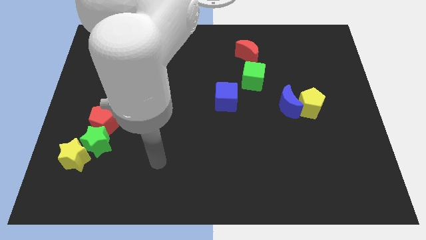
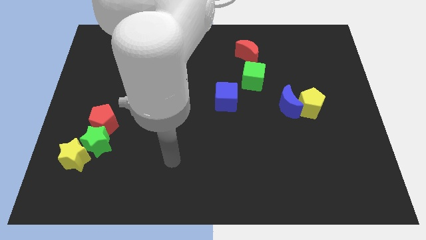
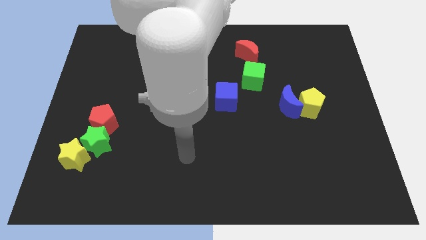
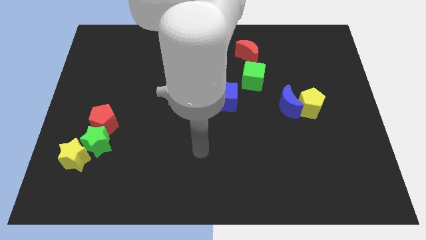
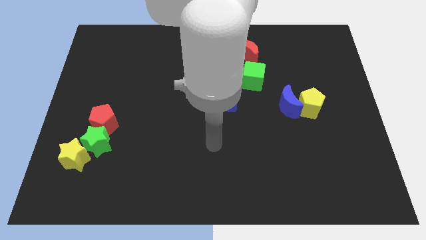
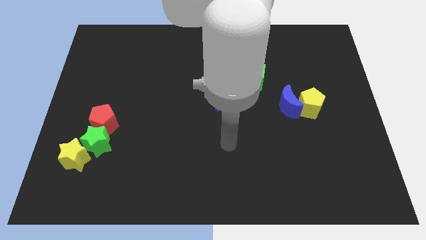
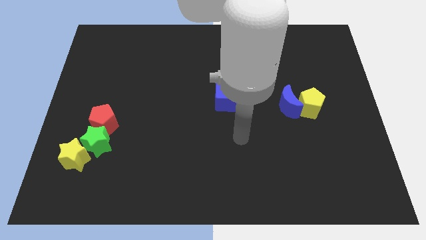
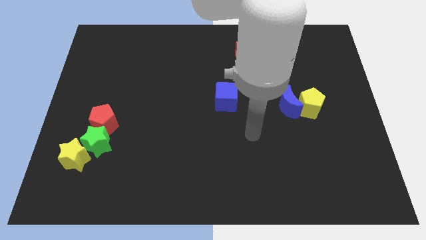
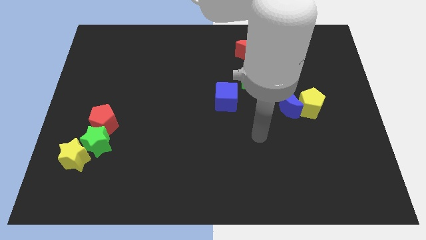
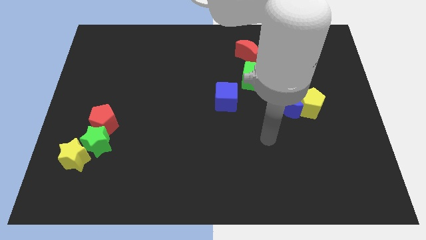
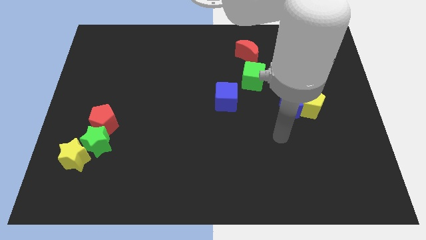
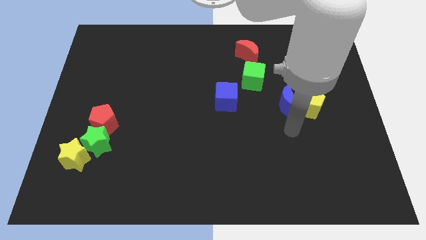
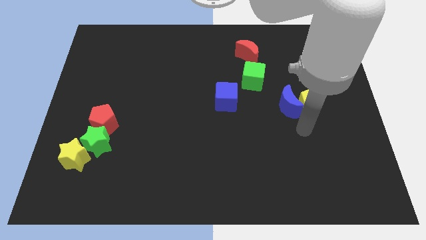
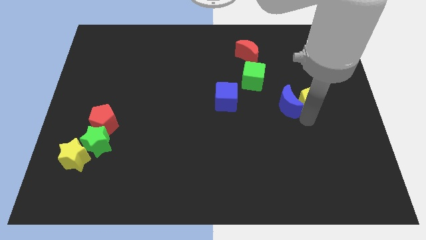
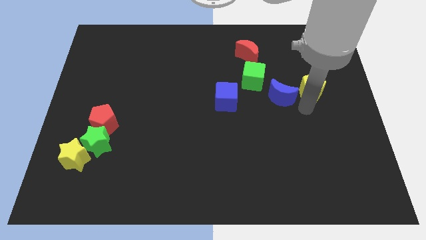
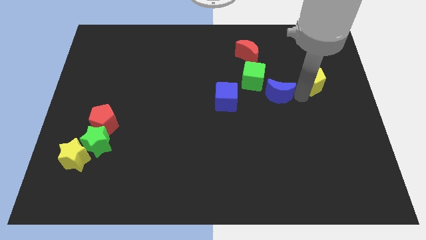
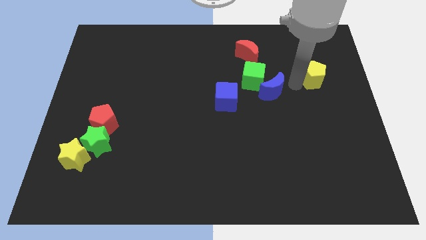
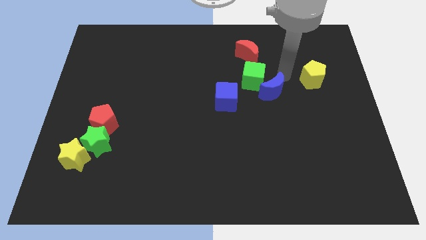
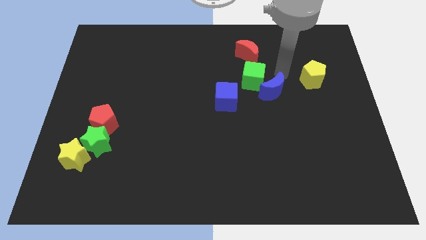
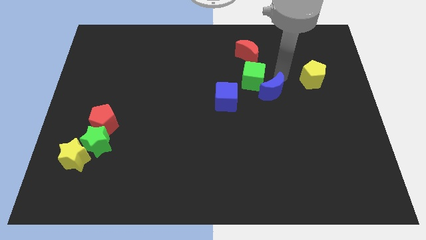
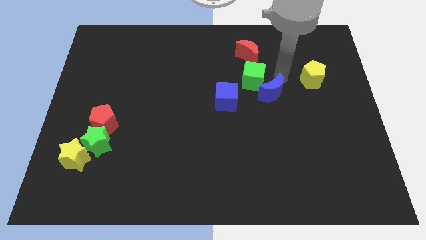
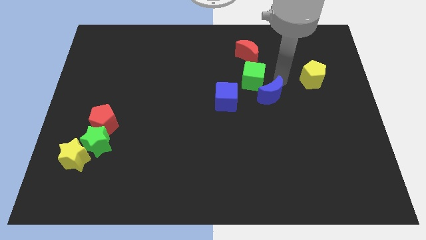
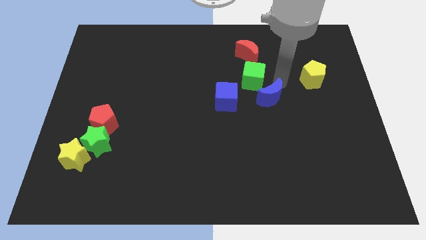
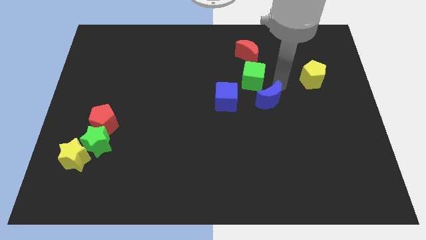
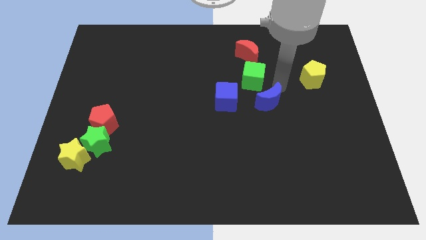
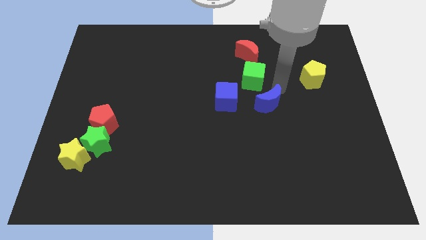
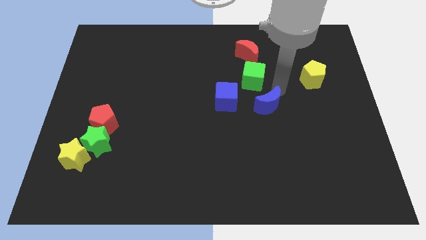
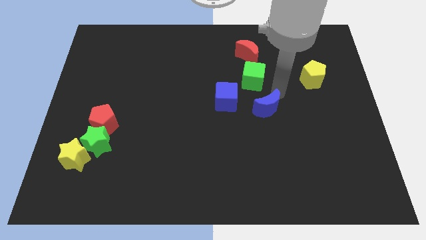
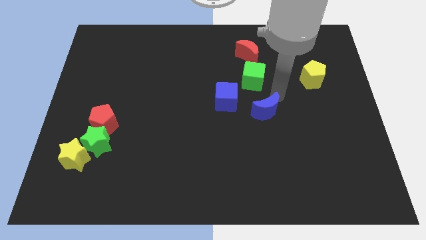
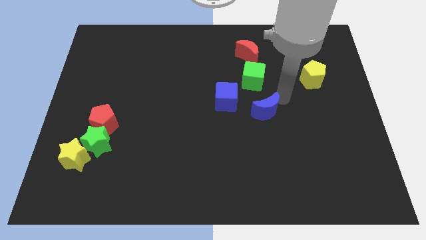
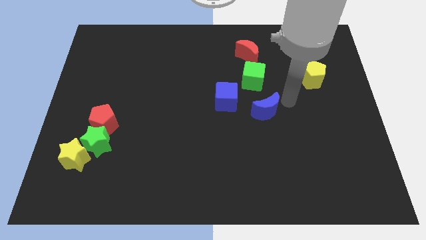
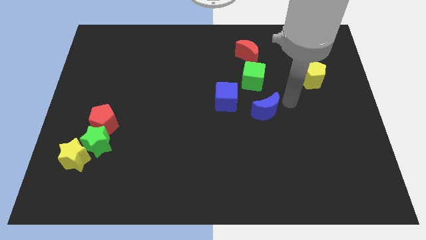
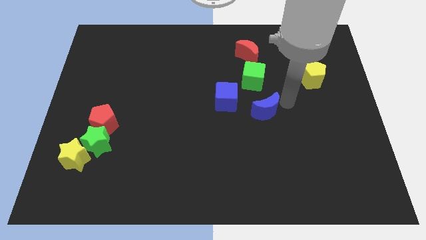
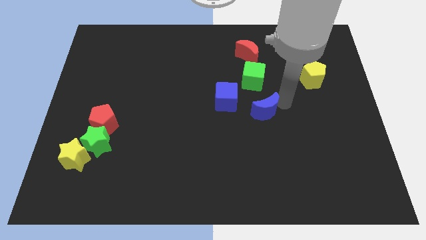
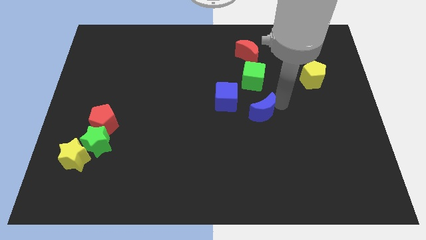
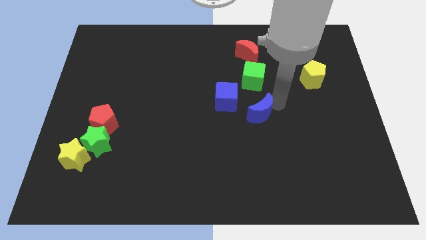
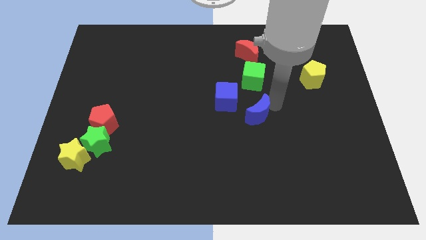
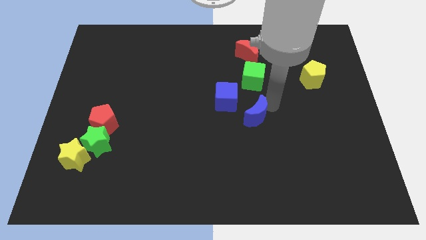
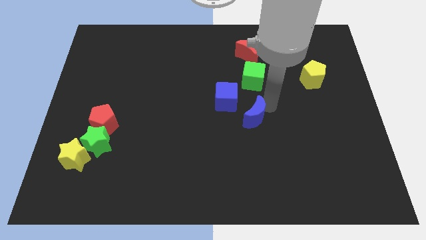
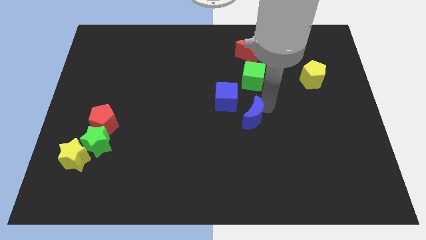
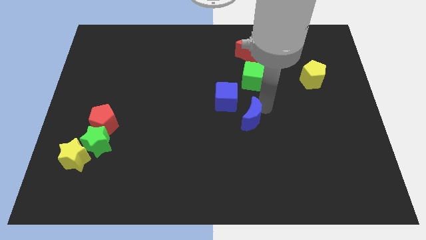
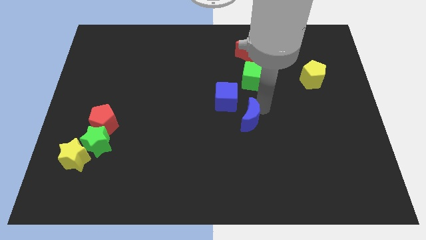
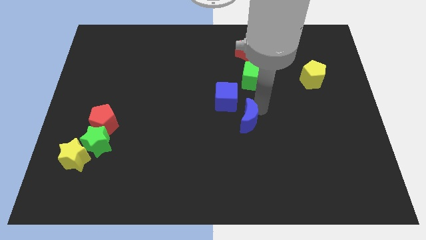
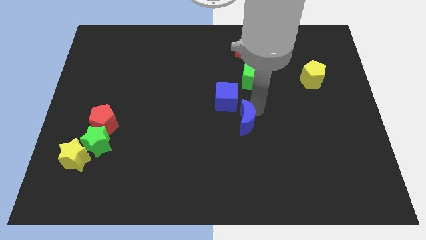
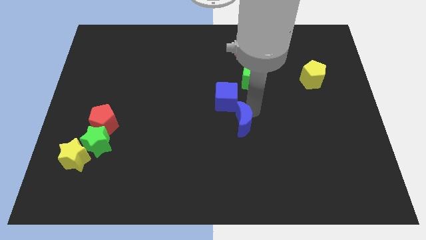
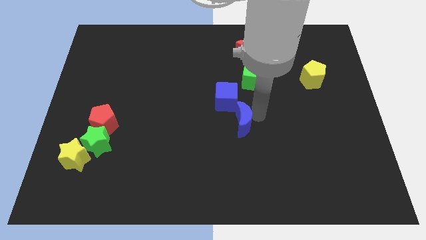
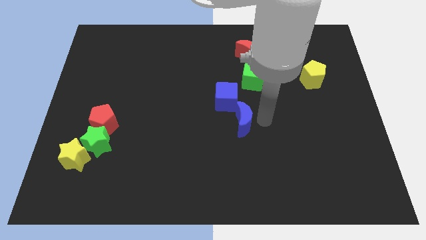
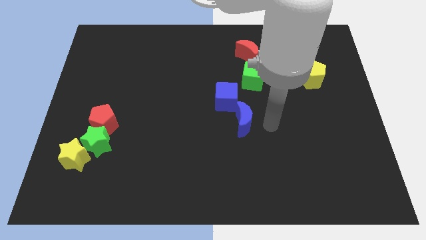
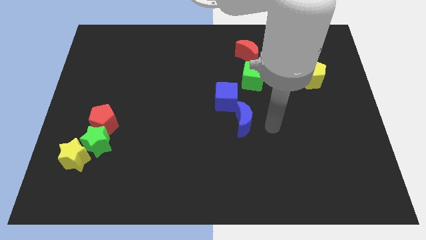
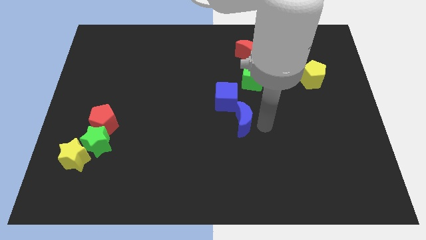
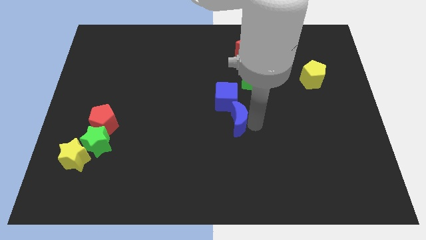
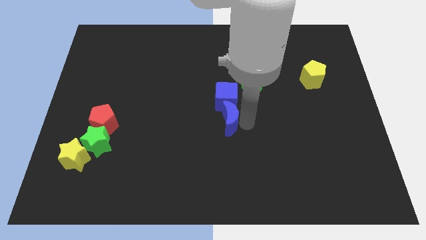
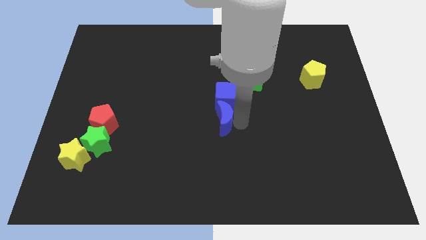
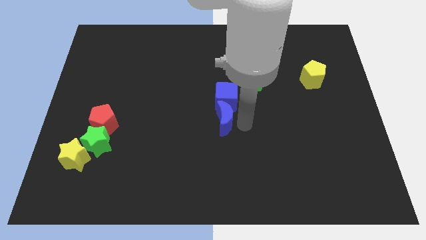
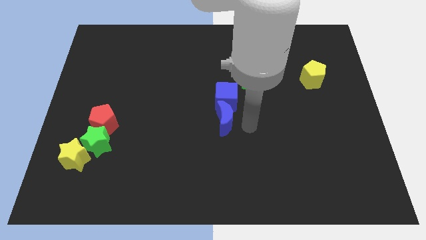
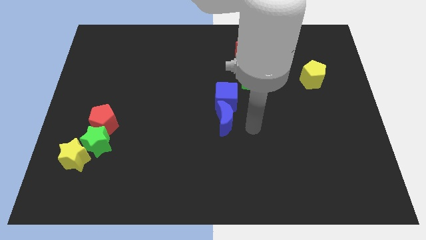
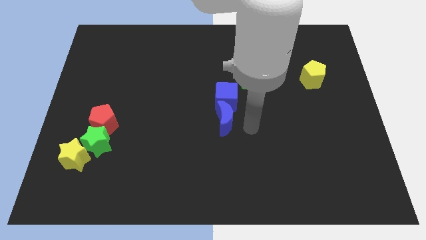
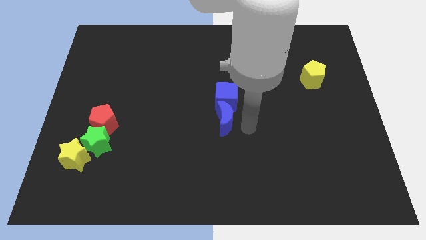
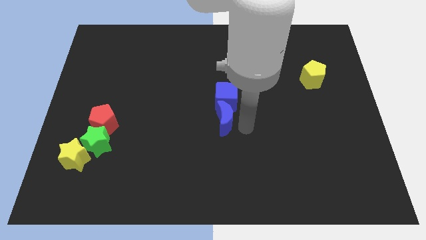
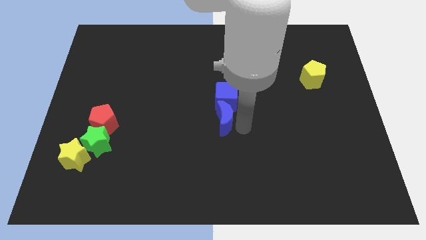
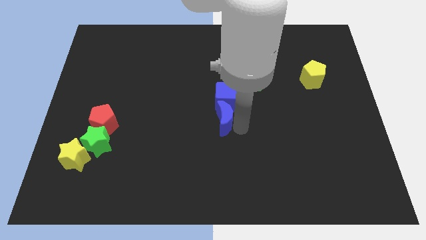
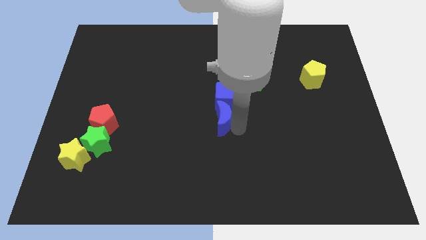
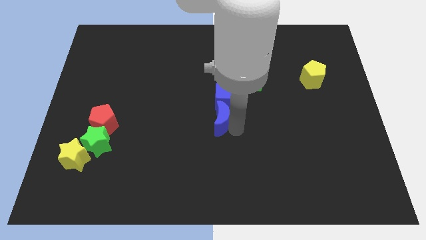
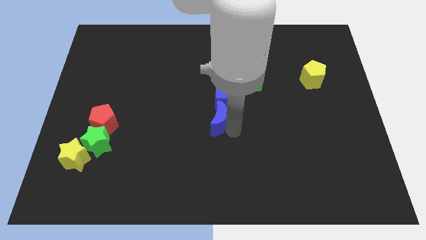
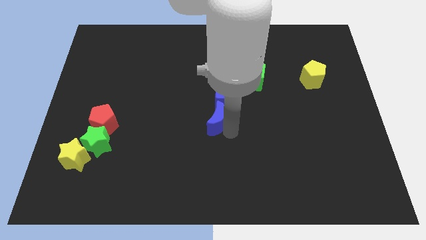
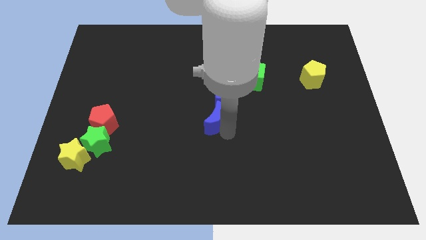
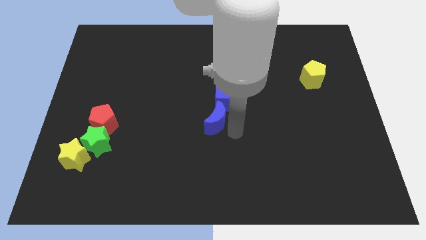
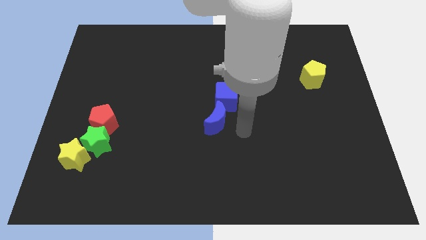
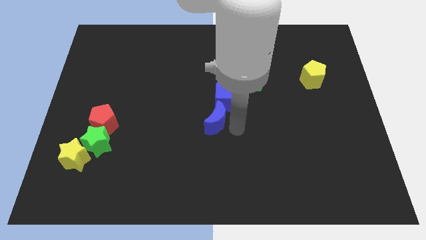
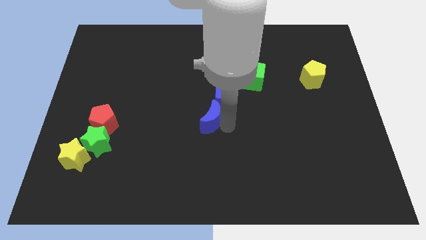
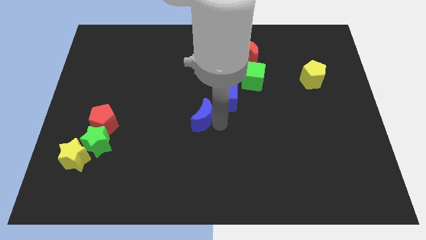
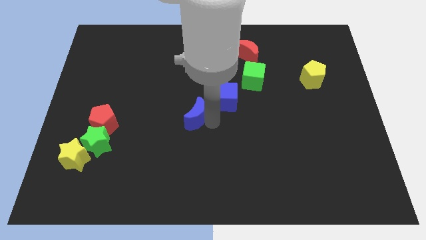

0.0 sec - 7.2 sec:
slide the blue moon left

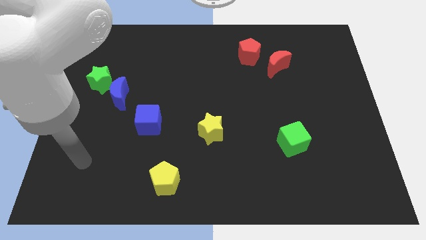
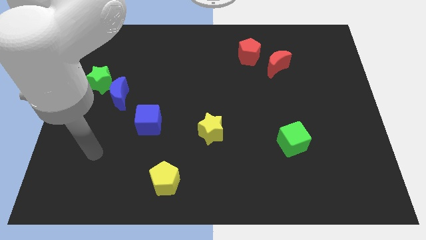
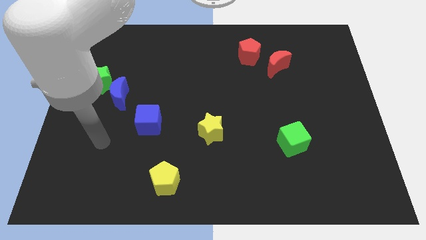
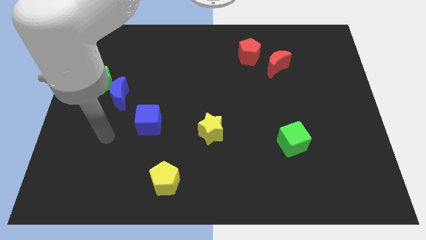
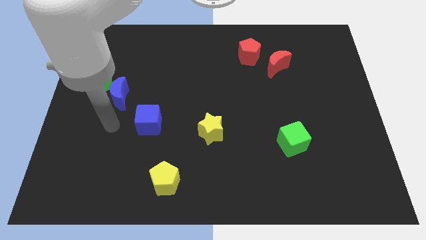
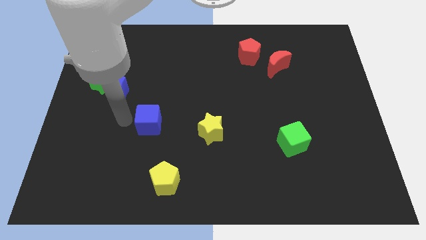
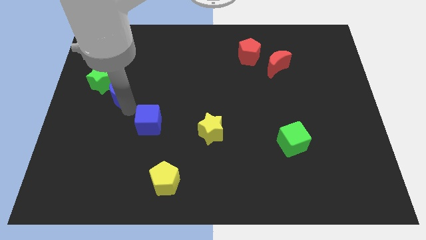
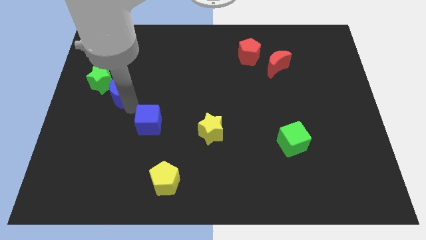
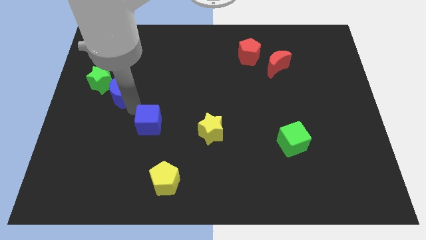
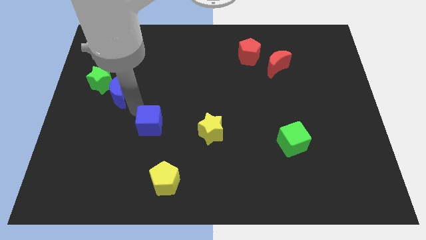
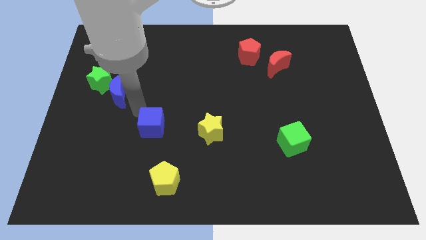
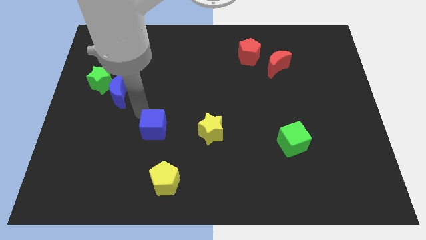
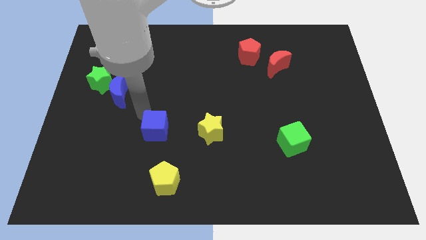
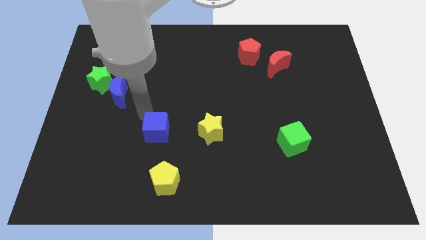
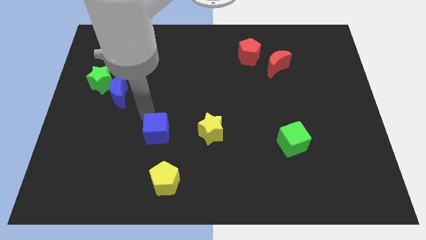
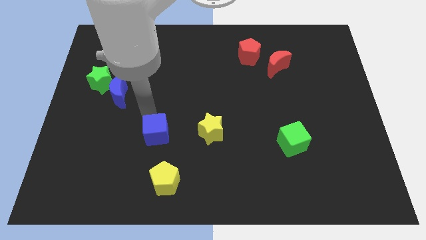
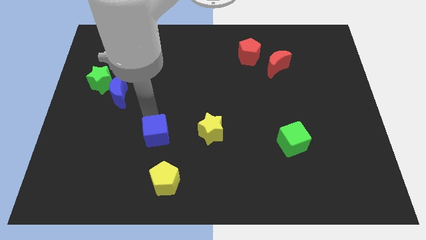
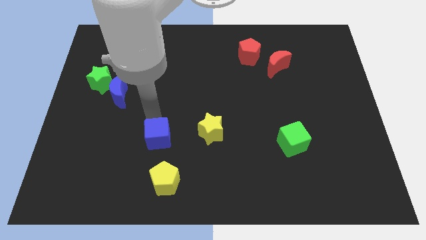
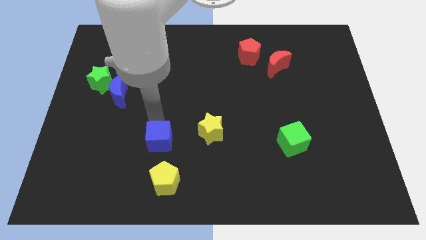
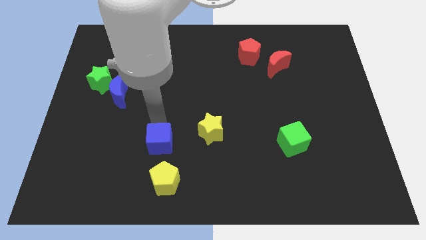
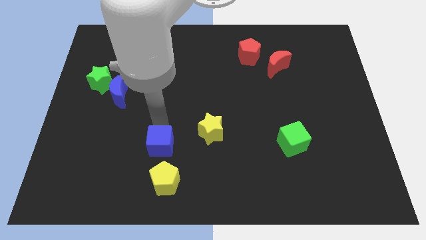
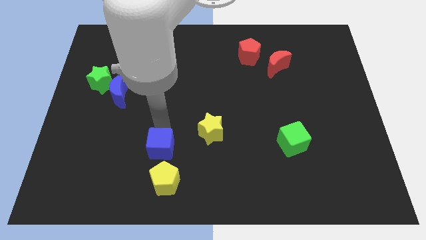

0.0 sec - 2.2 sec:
push the blue cube down and right slightly
